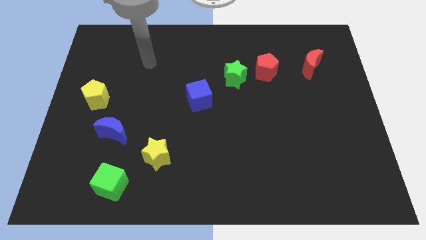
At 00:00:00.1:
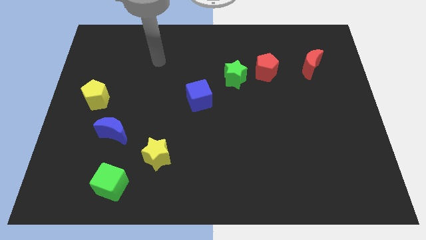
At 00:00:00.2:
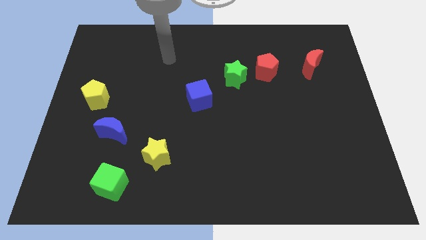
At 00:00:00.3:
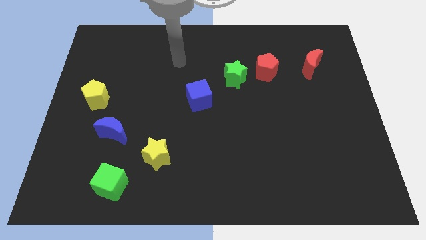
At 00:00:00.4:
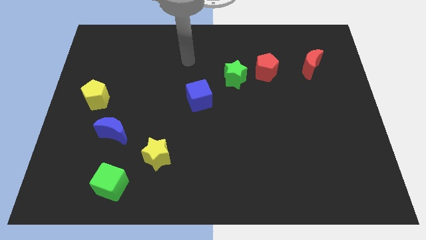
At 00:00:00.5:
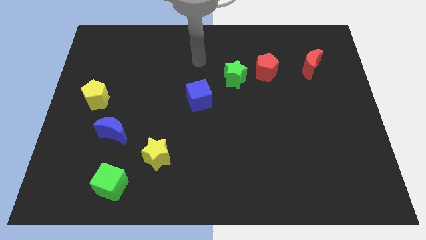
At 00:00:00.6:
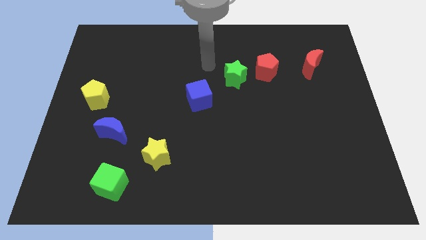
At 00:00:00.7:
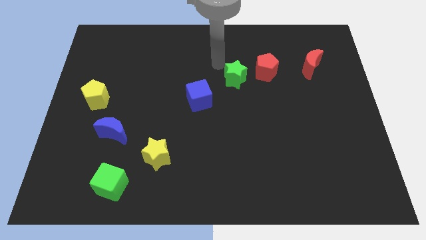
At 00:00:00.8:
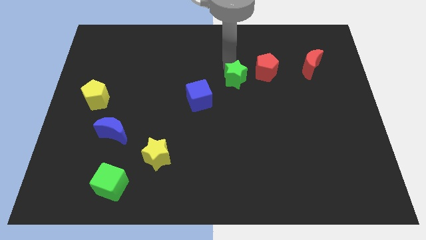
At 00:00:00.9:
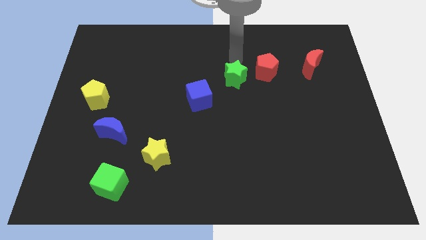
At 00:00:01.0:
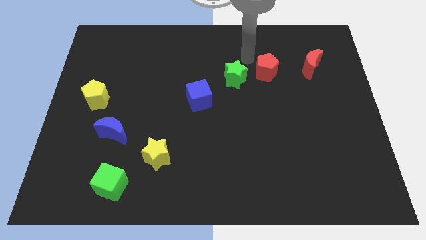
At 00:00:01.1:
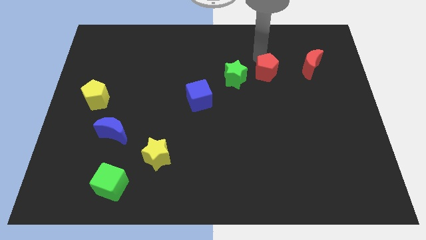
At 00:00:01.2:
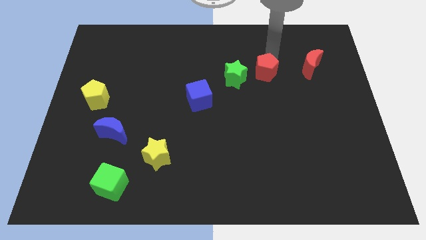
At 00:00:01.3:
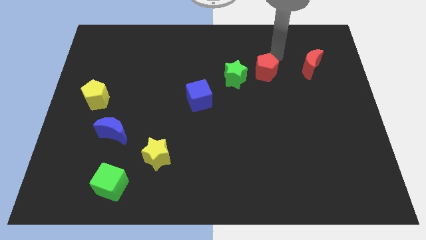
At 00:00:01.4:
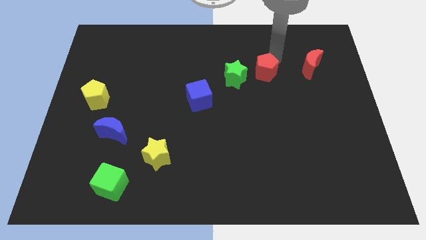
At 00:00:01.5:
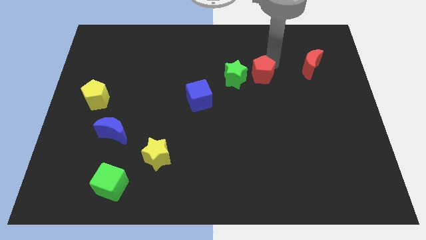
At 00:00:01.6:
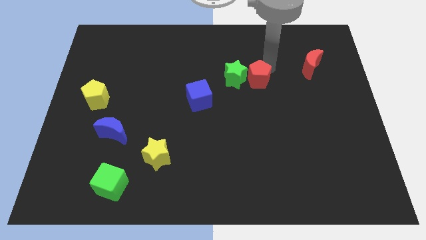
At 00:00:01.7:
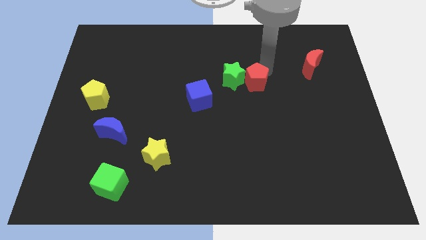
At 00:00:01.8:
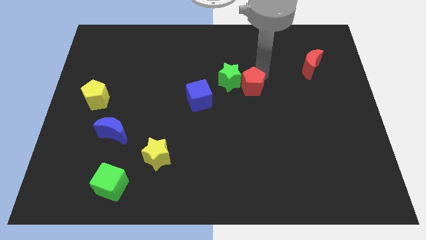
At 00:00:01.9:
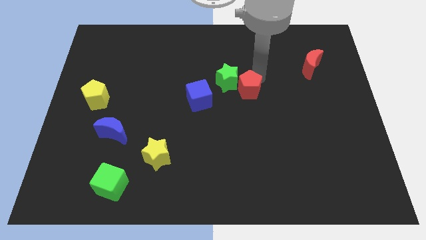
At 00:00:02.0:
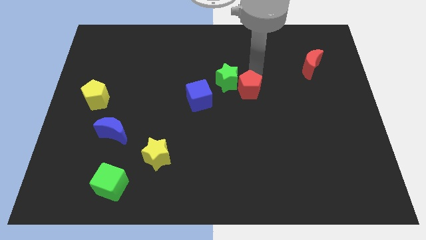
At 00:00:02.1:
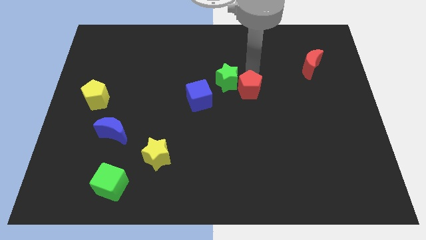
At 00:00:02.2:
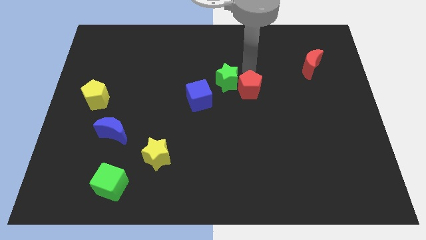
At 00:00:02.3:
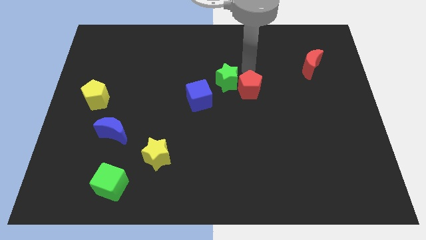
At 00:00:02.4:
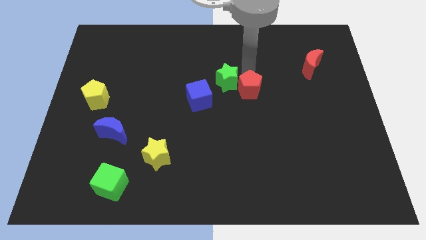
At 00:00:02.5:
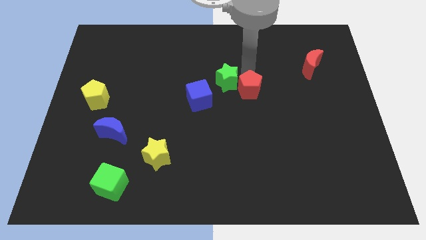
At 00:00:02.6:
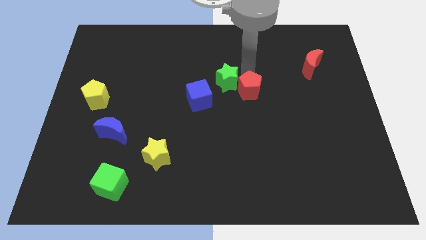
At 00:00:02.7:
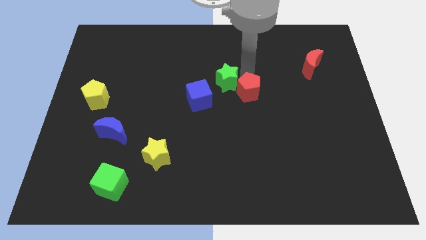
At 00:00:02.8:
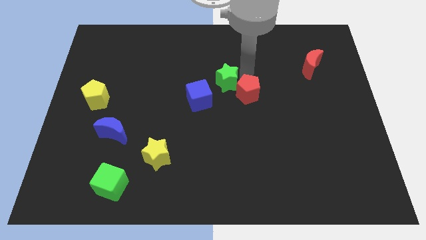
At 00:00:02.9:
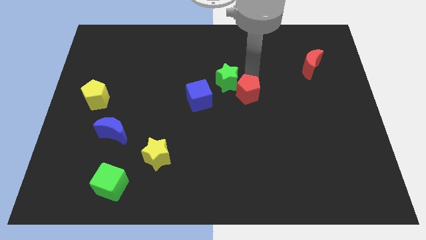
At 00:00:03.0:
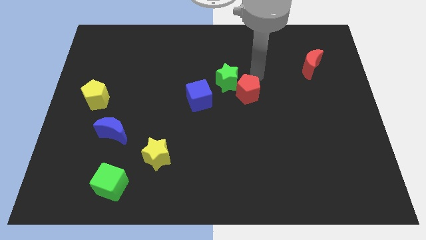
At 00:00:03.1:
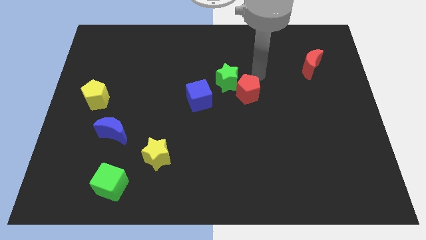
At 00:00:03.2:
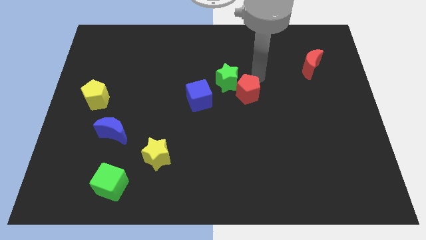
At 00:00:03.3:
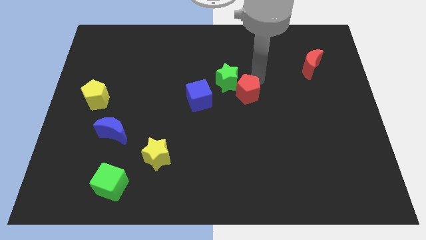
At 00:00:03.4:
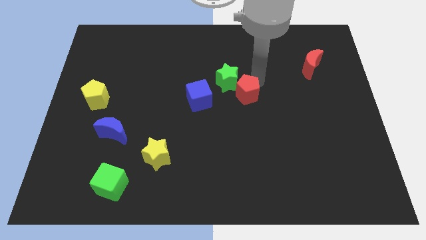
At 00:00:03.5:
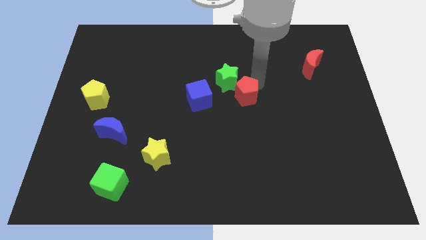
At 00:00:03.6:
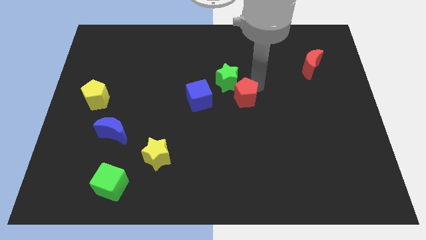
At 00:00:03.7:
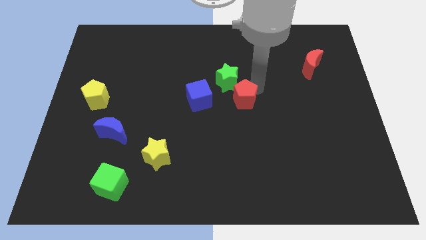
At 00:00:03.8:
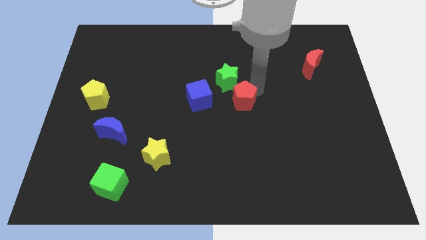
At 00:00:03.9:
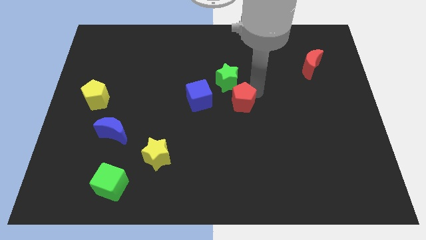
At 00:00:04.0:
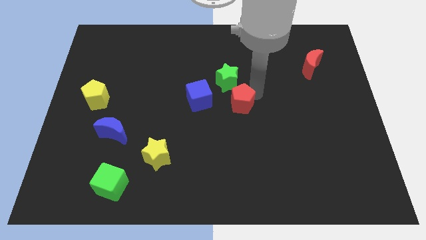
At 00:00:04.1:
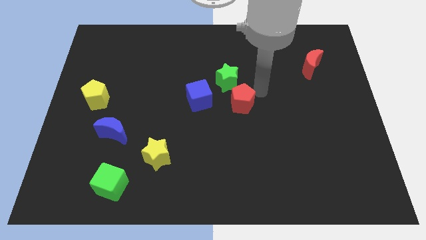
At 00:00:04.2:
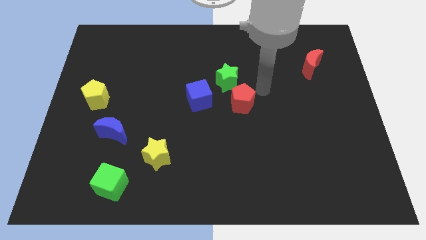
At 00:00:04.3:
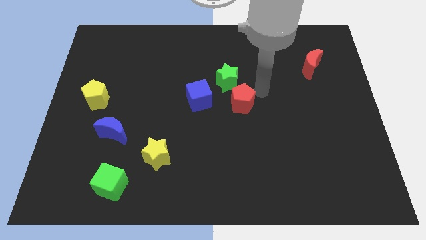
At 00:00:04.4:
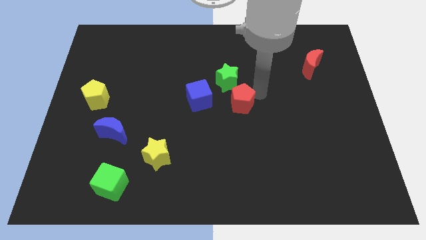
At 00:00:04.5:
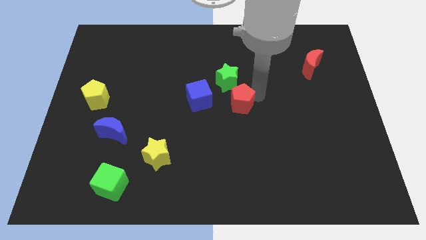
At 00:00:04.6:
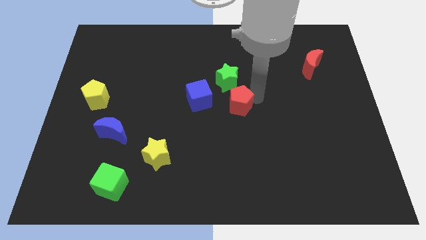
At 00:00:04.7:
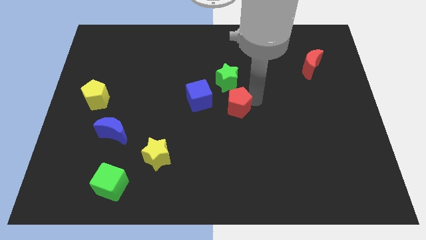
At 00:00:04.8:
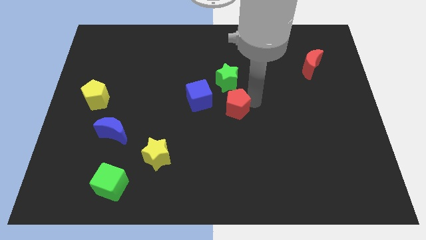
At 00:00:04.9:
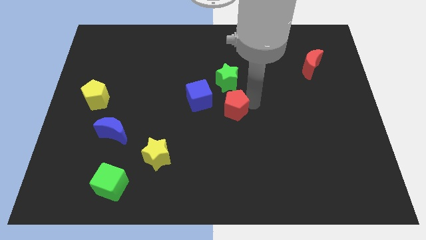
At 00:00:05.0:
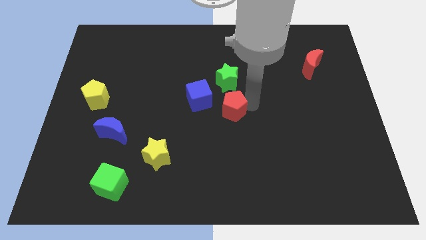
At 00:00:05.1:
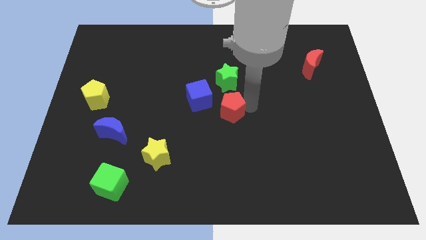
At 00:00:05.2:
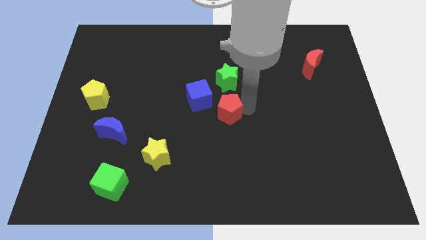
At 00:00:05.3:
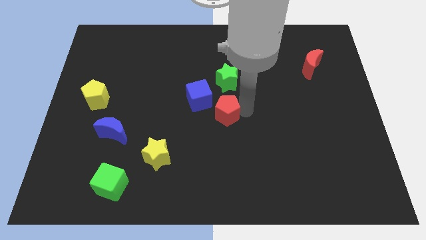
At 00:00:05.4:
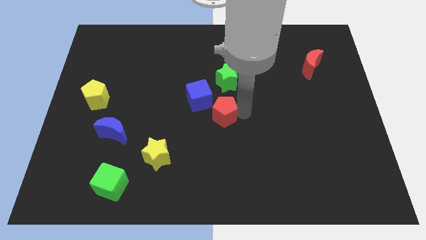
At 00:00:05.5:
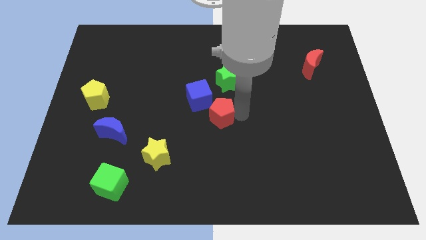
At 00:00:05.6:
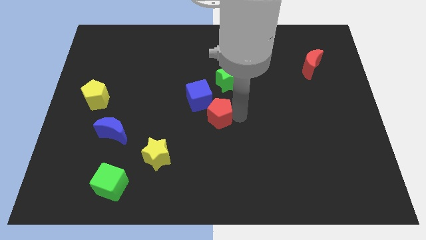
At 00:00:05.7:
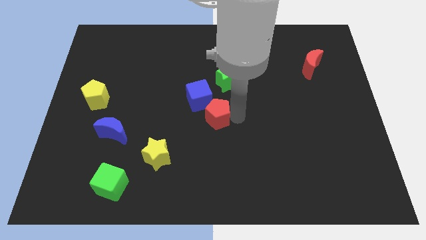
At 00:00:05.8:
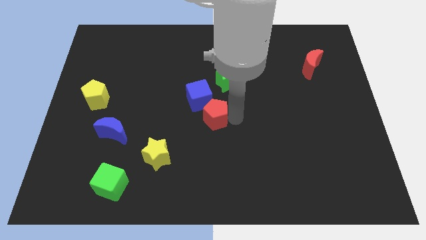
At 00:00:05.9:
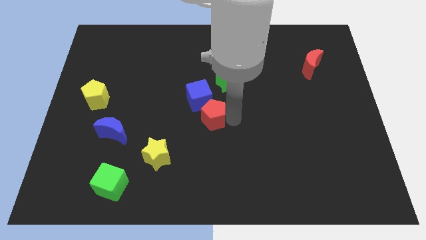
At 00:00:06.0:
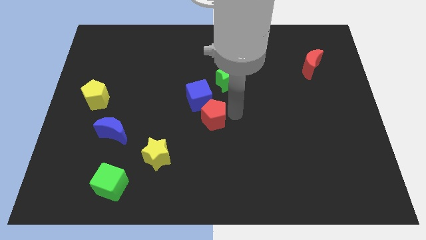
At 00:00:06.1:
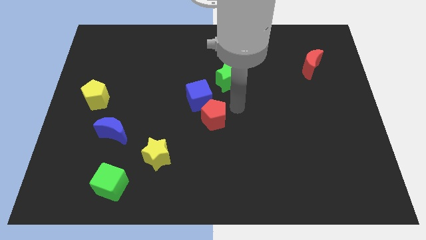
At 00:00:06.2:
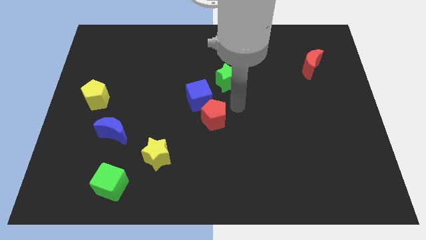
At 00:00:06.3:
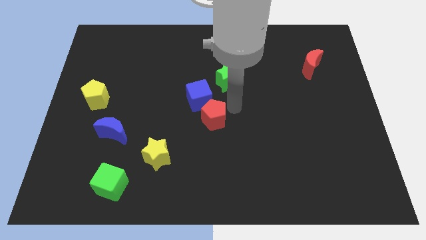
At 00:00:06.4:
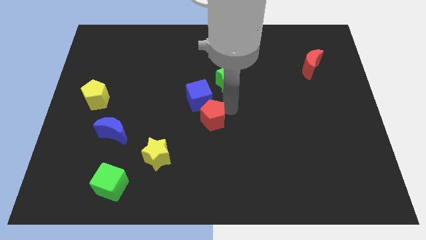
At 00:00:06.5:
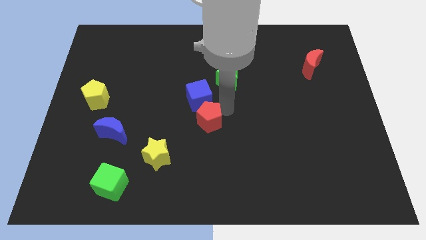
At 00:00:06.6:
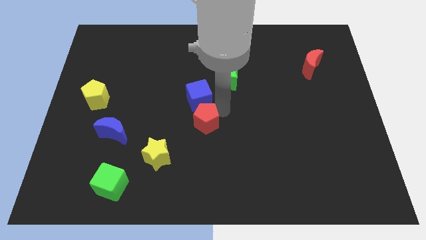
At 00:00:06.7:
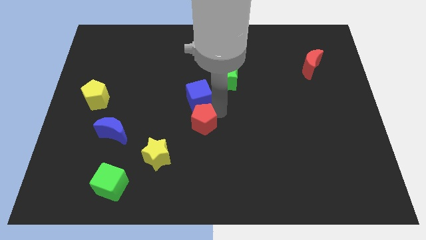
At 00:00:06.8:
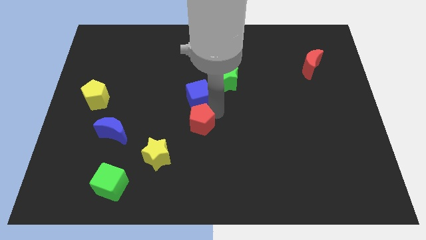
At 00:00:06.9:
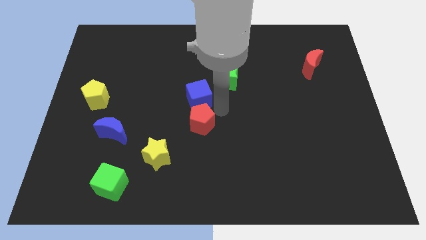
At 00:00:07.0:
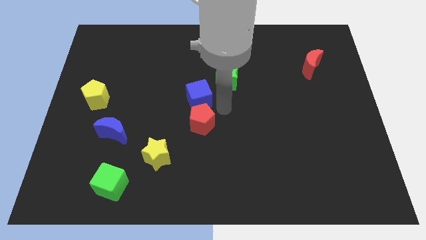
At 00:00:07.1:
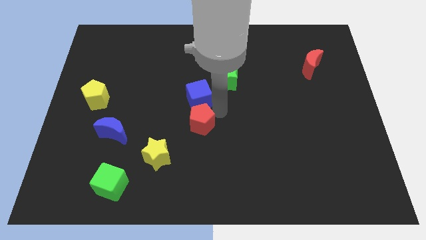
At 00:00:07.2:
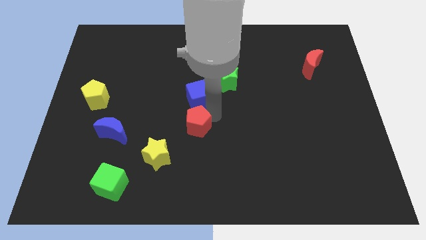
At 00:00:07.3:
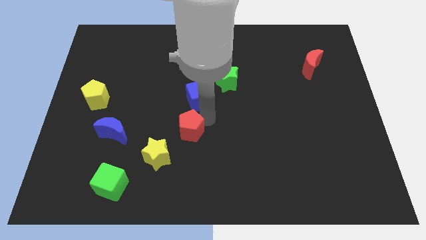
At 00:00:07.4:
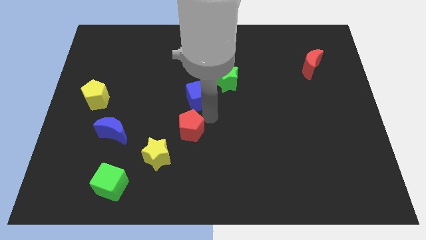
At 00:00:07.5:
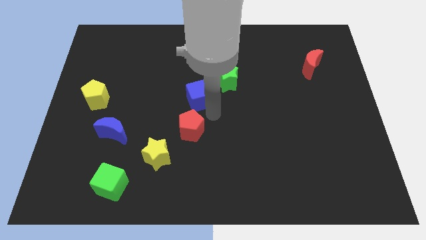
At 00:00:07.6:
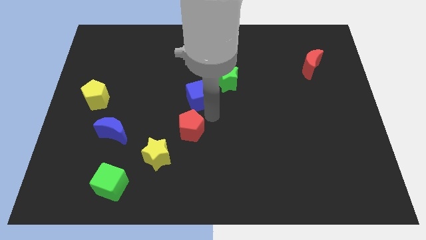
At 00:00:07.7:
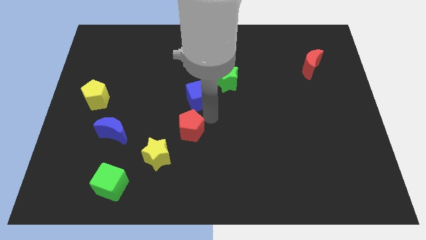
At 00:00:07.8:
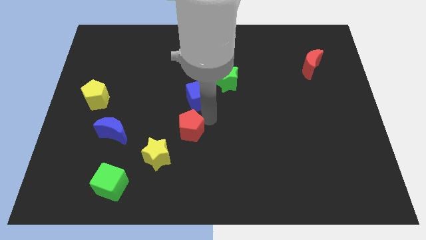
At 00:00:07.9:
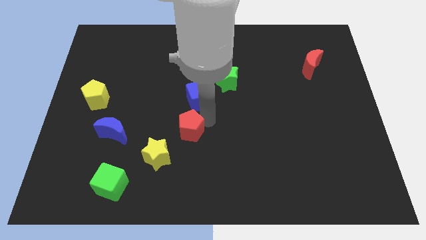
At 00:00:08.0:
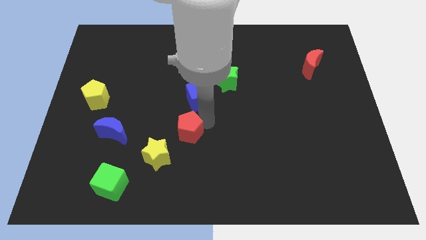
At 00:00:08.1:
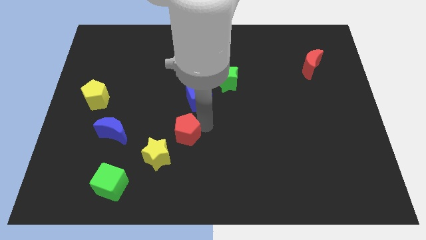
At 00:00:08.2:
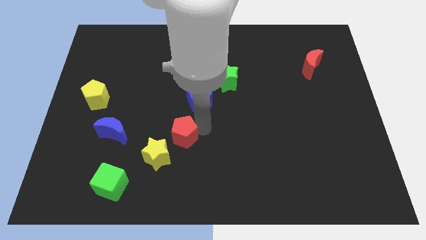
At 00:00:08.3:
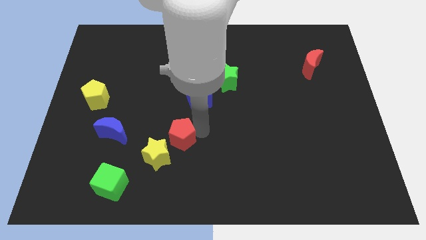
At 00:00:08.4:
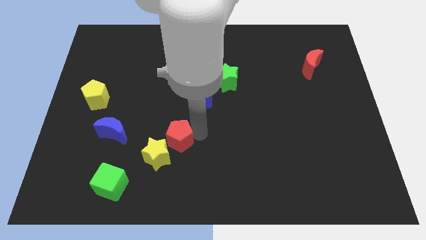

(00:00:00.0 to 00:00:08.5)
put the red pentagon towards the yellow star
